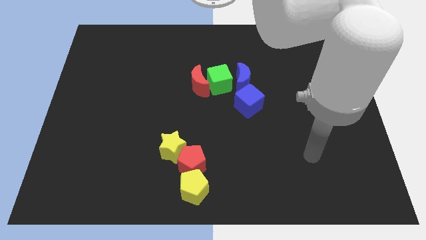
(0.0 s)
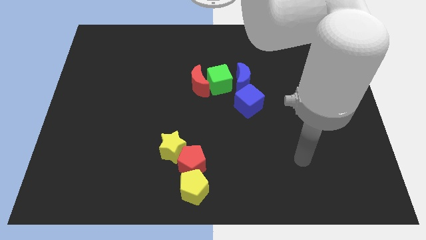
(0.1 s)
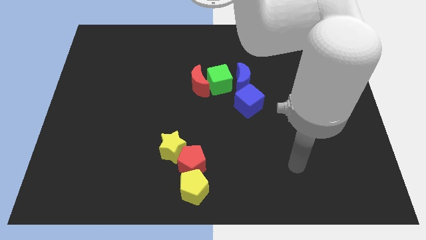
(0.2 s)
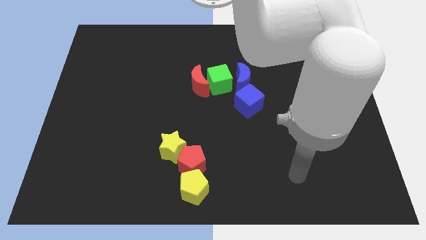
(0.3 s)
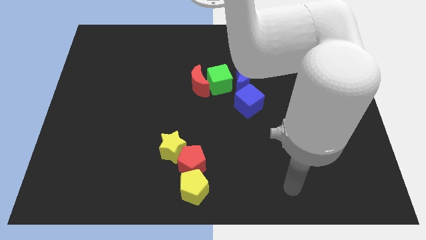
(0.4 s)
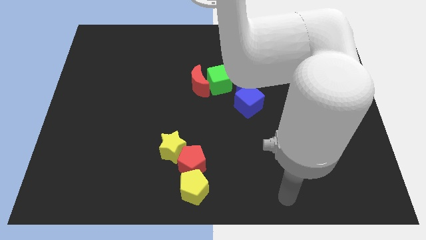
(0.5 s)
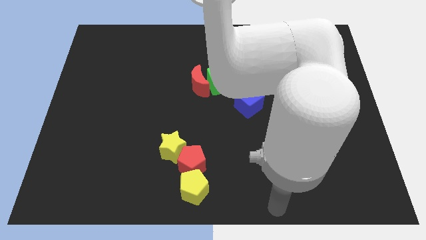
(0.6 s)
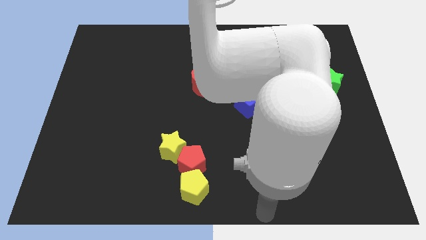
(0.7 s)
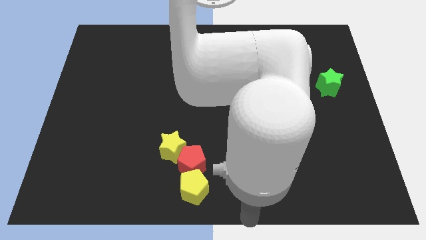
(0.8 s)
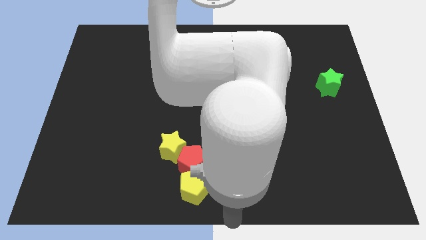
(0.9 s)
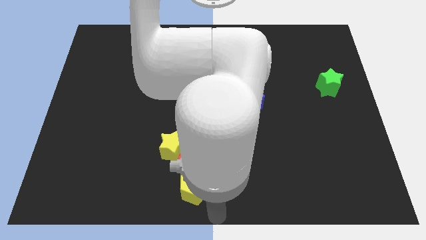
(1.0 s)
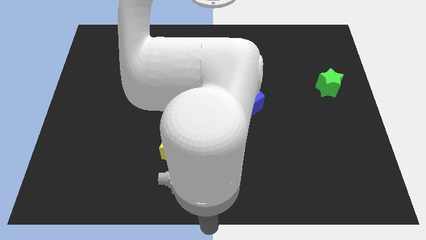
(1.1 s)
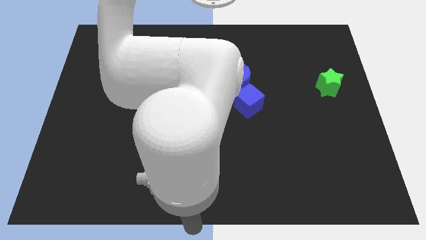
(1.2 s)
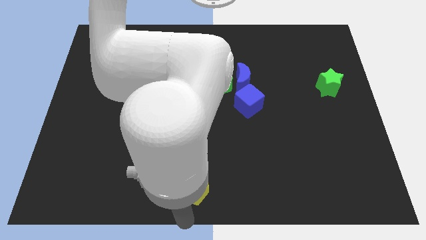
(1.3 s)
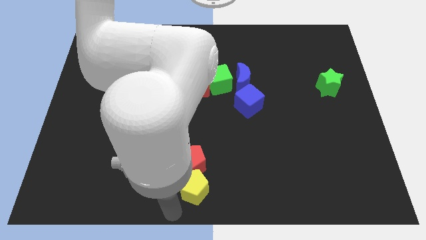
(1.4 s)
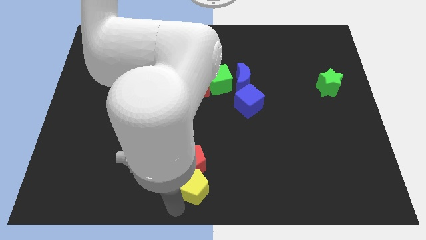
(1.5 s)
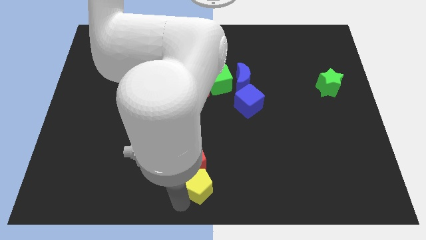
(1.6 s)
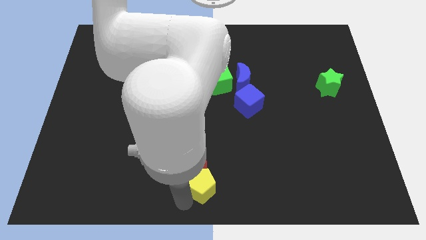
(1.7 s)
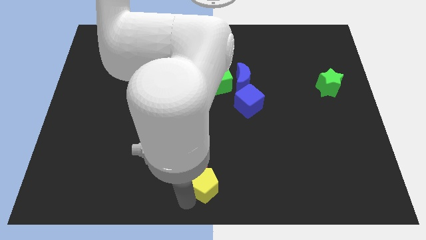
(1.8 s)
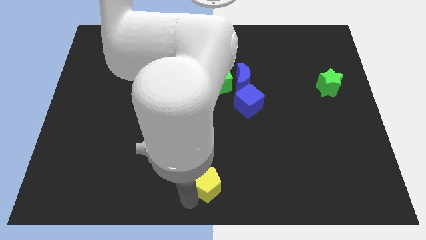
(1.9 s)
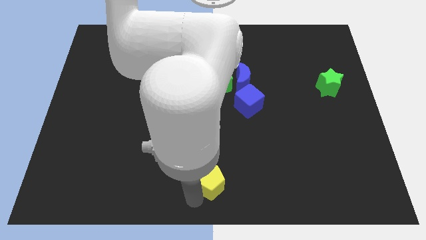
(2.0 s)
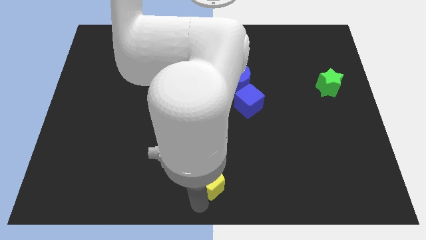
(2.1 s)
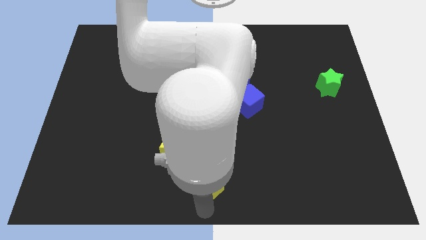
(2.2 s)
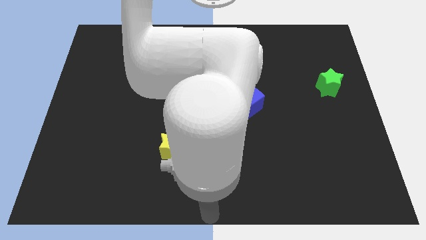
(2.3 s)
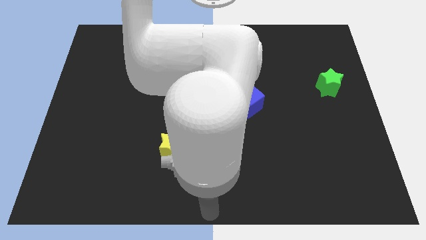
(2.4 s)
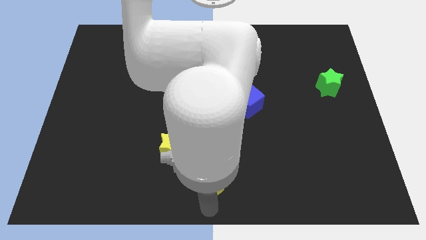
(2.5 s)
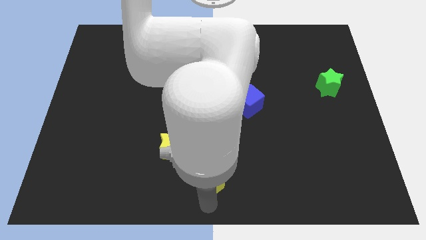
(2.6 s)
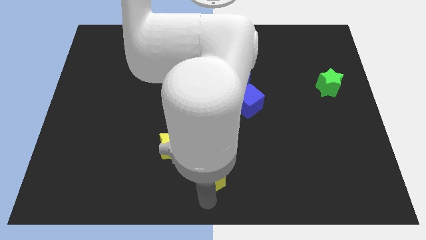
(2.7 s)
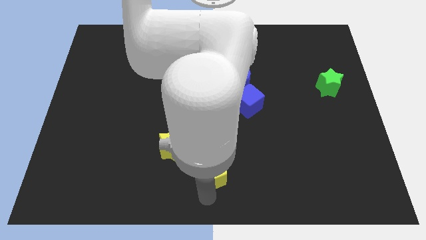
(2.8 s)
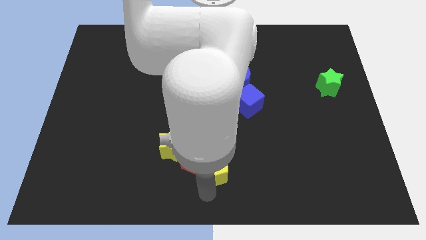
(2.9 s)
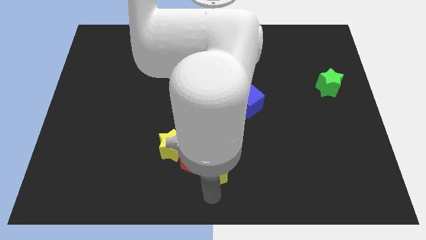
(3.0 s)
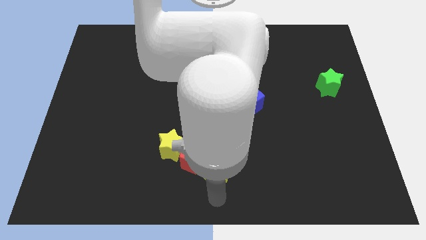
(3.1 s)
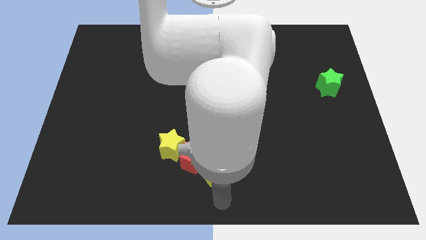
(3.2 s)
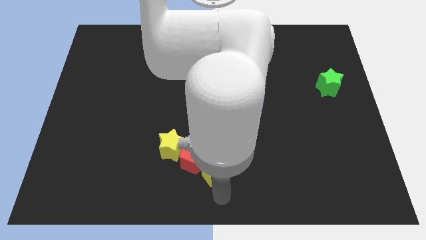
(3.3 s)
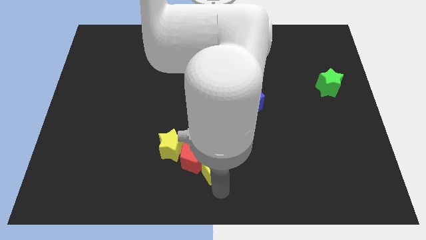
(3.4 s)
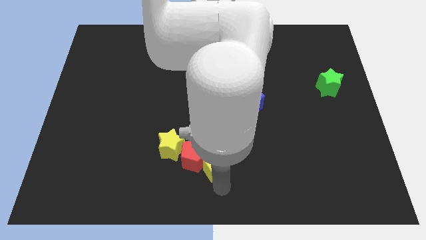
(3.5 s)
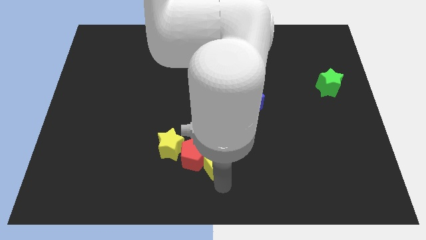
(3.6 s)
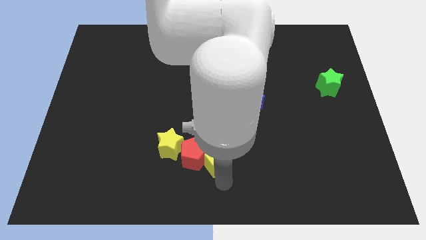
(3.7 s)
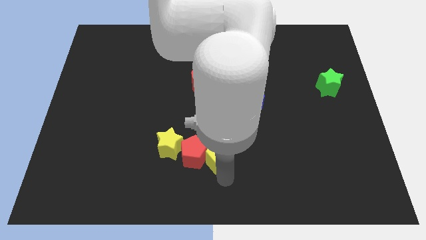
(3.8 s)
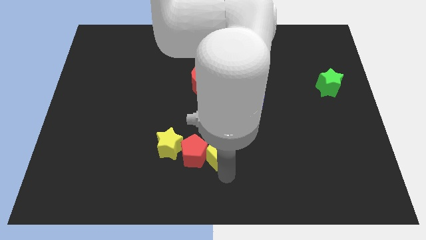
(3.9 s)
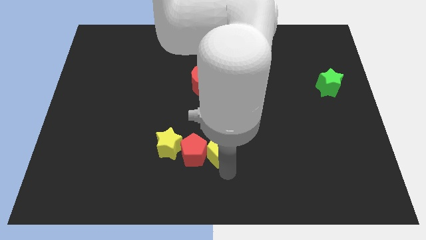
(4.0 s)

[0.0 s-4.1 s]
move the yellow pentagon a bit up

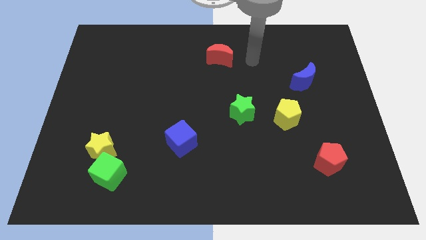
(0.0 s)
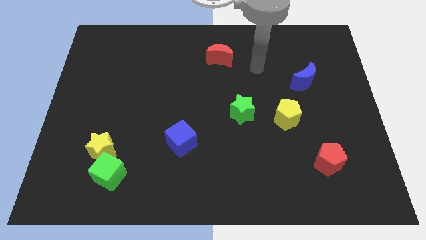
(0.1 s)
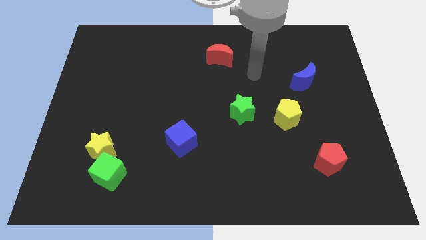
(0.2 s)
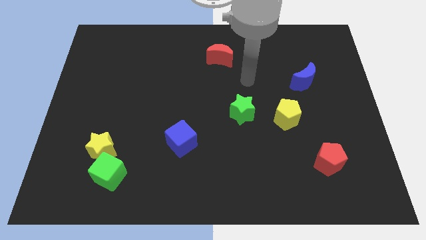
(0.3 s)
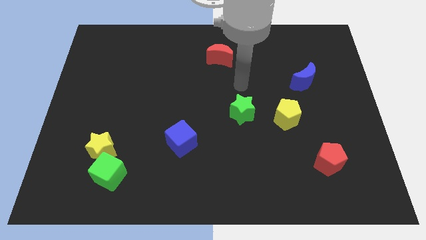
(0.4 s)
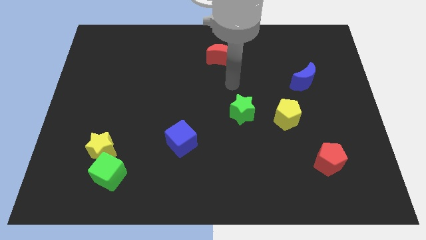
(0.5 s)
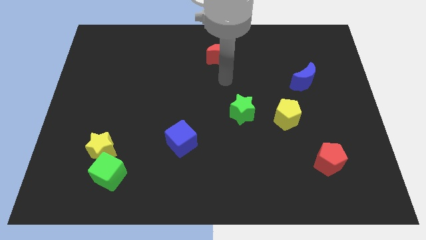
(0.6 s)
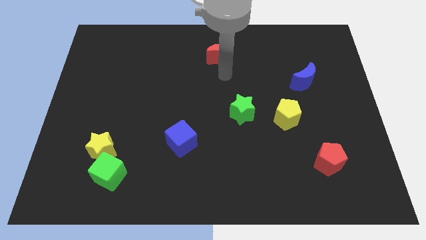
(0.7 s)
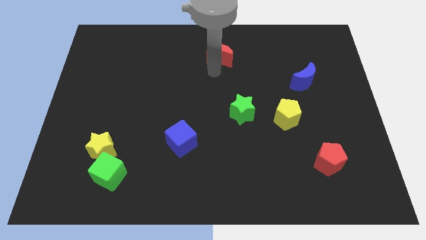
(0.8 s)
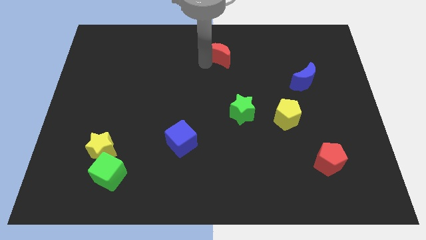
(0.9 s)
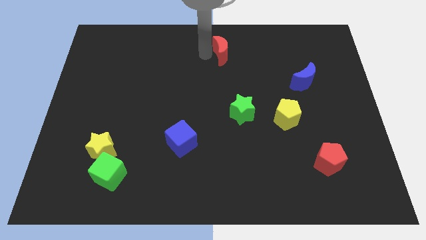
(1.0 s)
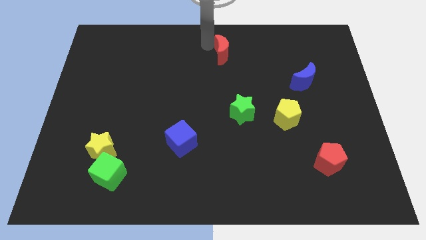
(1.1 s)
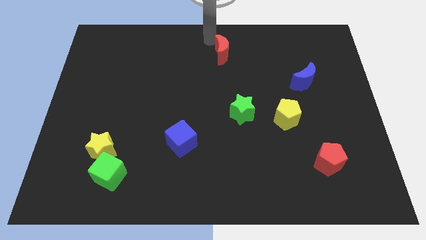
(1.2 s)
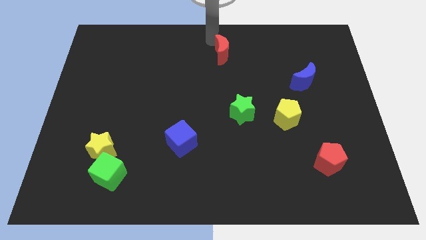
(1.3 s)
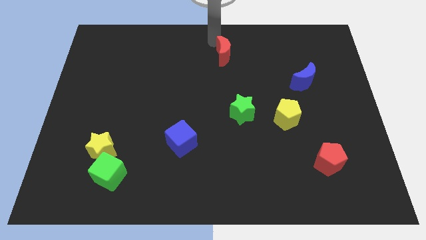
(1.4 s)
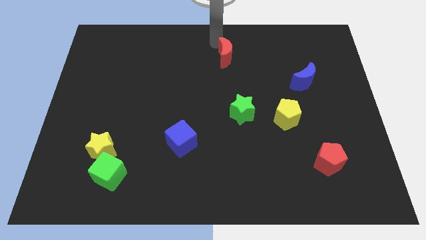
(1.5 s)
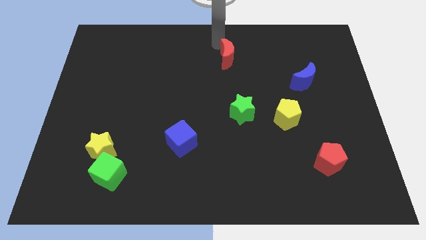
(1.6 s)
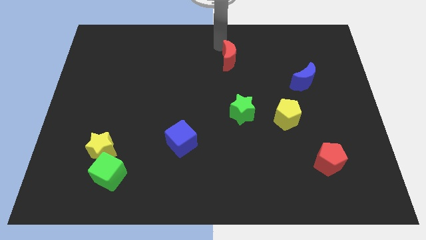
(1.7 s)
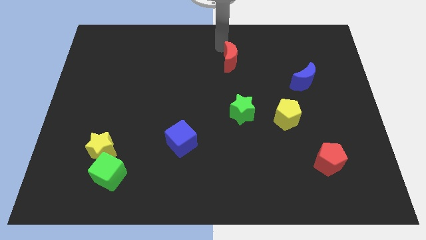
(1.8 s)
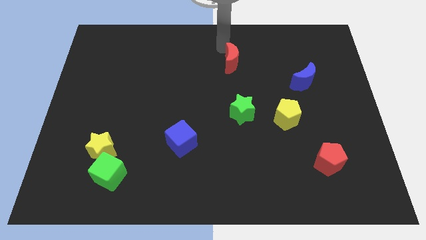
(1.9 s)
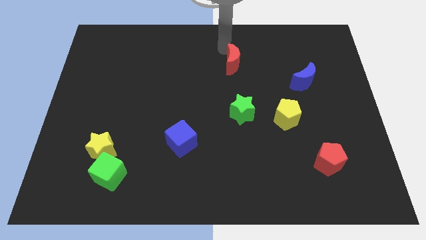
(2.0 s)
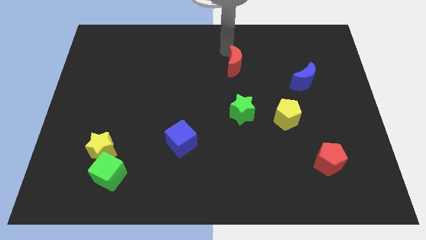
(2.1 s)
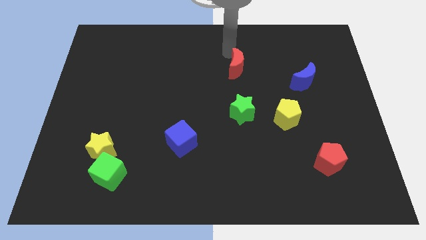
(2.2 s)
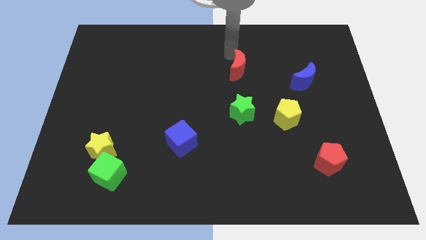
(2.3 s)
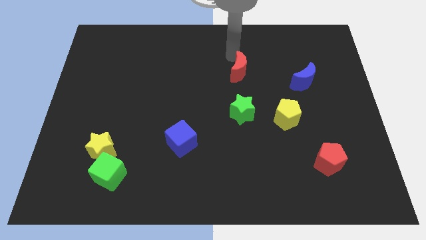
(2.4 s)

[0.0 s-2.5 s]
push the red moon down and then right a little bit

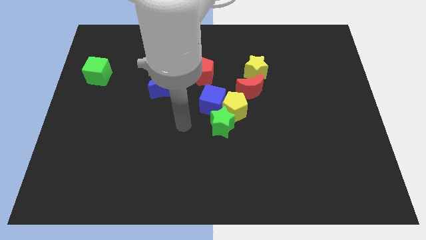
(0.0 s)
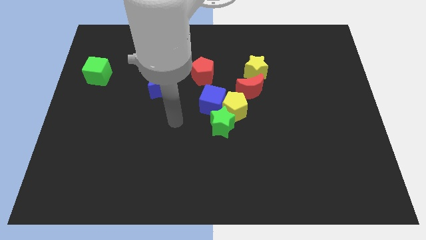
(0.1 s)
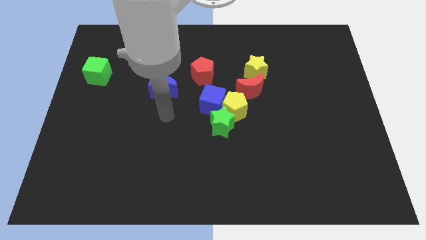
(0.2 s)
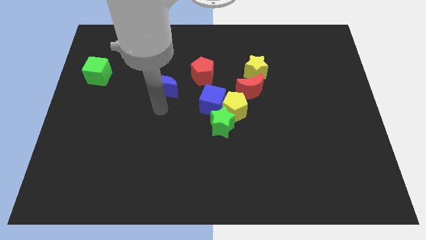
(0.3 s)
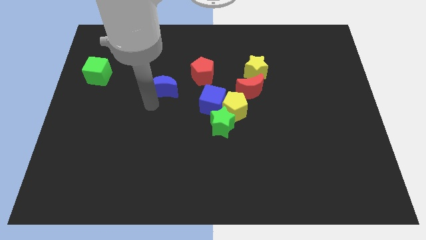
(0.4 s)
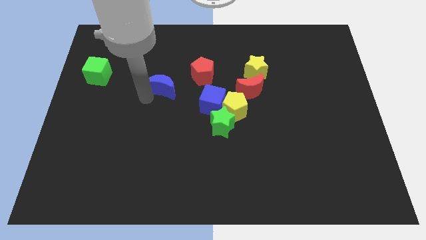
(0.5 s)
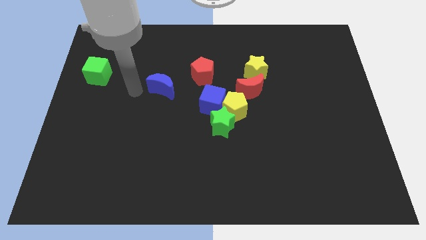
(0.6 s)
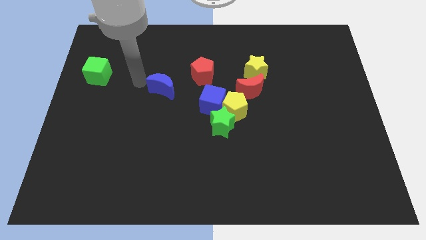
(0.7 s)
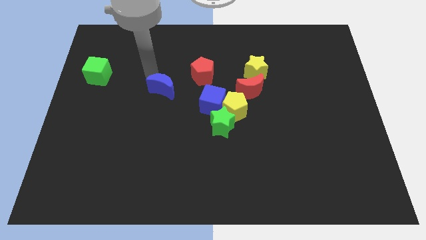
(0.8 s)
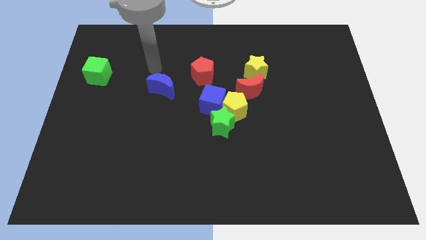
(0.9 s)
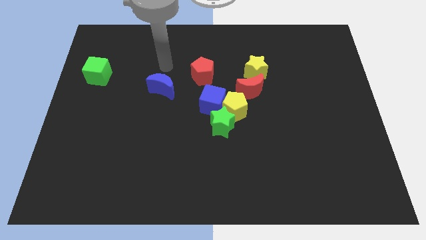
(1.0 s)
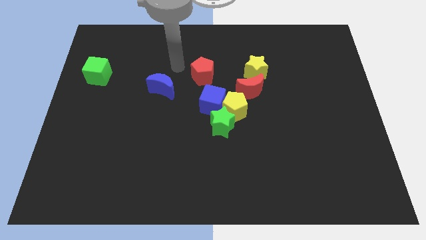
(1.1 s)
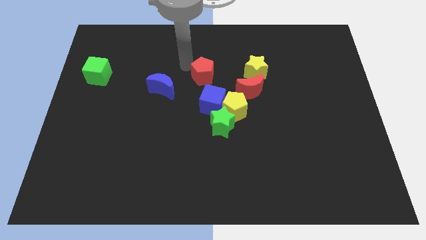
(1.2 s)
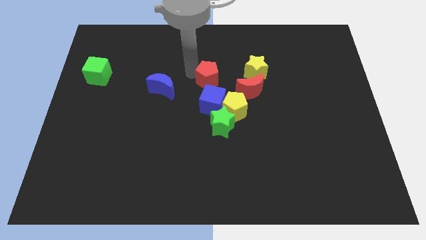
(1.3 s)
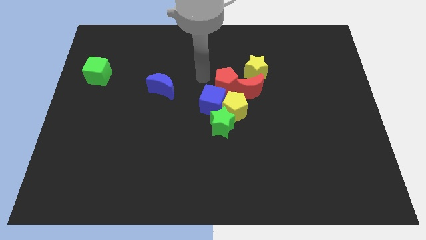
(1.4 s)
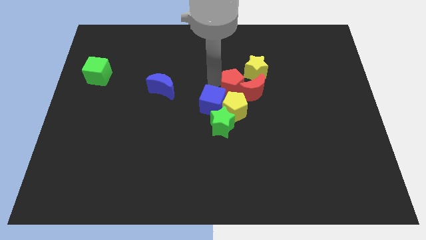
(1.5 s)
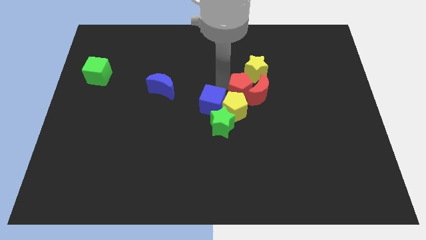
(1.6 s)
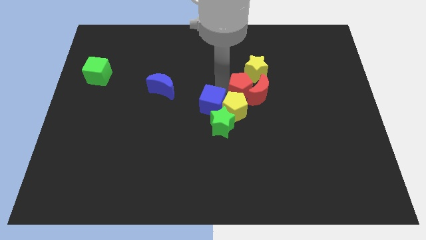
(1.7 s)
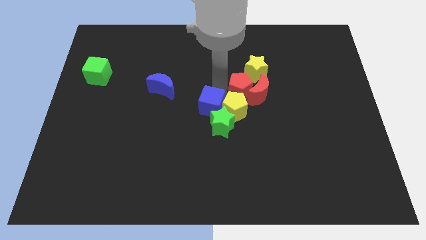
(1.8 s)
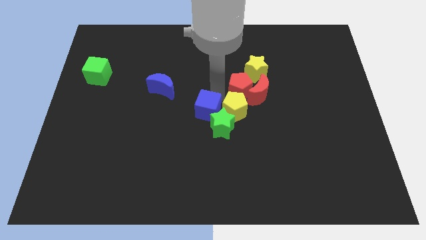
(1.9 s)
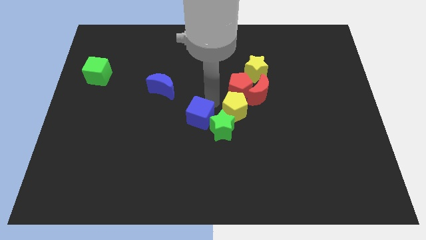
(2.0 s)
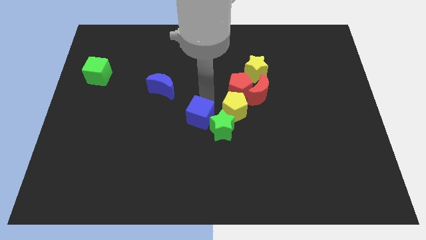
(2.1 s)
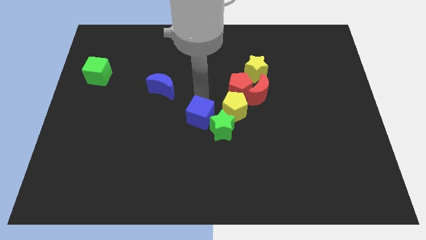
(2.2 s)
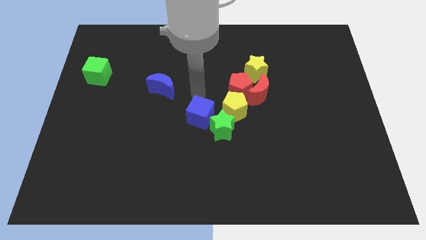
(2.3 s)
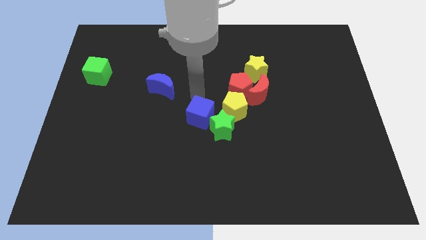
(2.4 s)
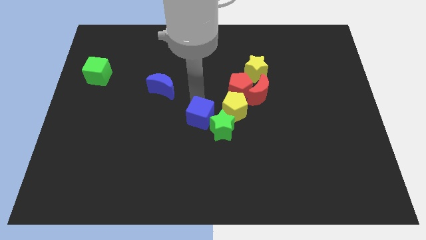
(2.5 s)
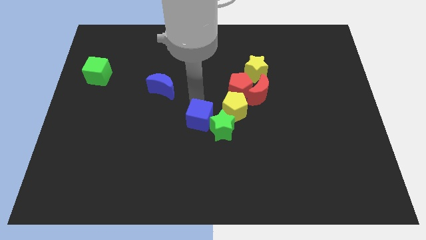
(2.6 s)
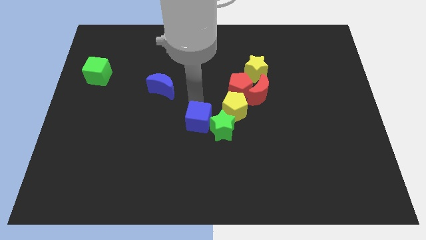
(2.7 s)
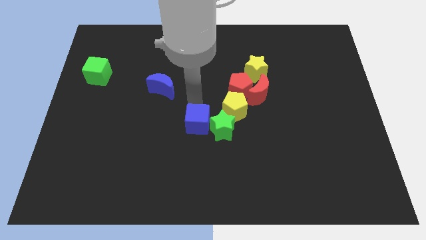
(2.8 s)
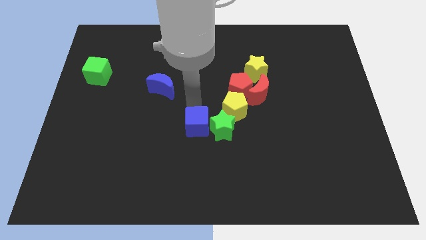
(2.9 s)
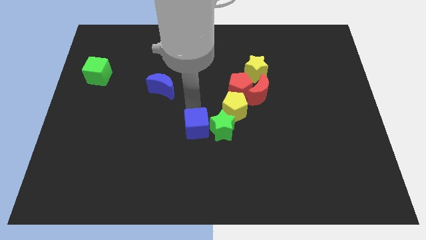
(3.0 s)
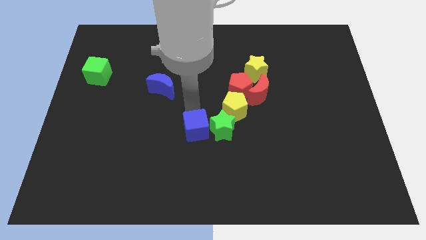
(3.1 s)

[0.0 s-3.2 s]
slightly slide the blue cube down
